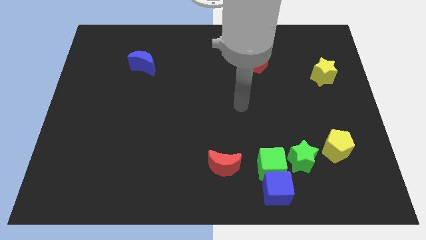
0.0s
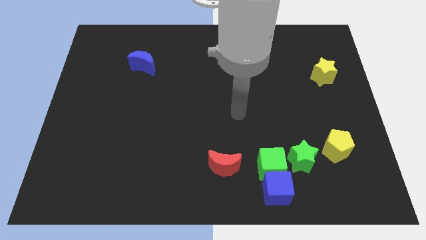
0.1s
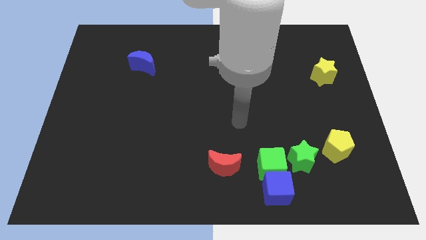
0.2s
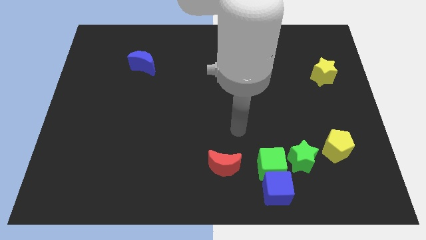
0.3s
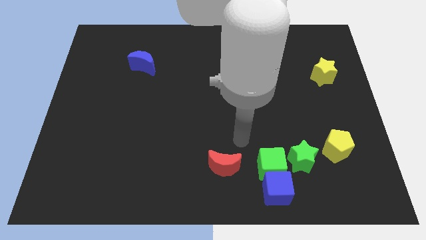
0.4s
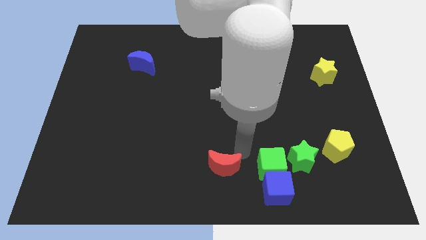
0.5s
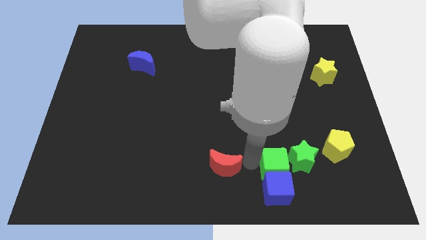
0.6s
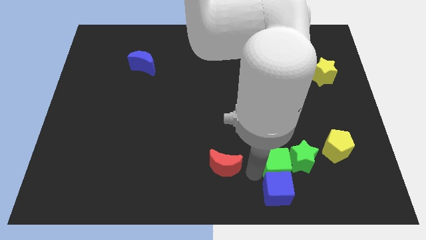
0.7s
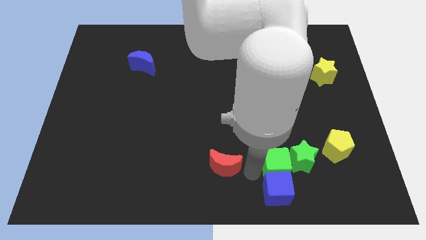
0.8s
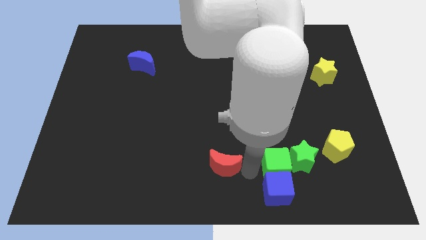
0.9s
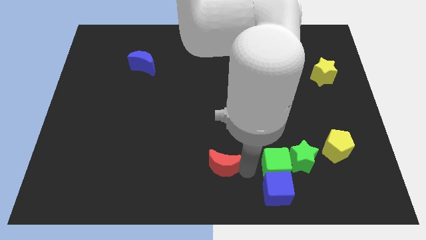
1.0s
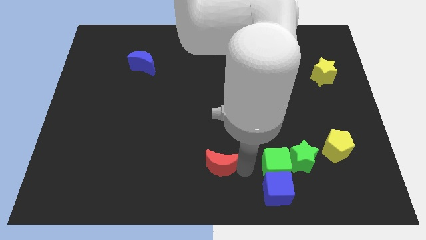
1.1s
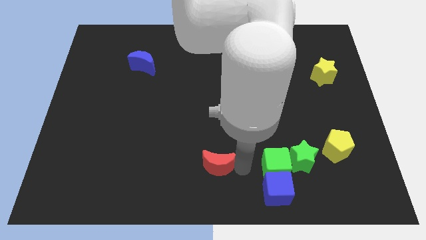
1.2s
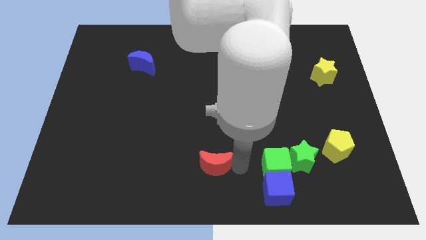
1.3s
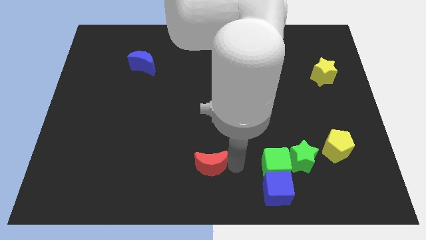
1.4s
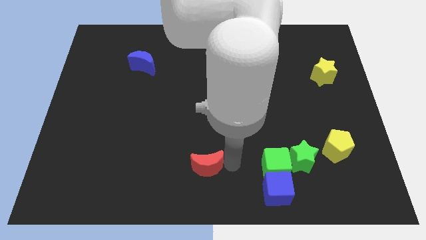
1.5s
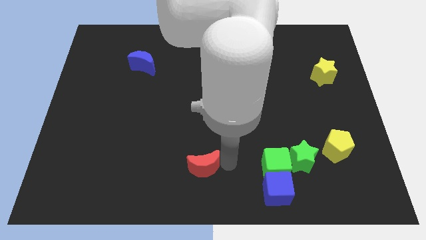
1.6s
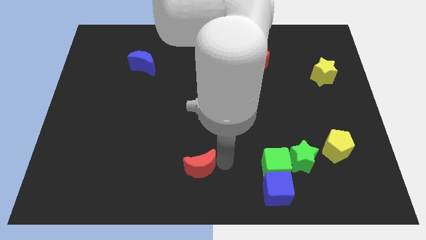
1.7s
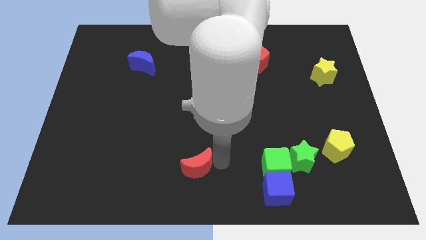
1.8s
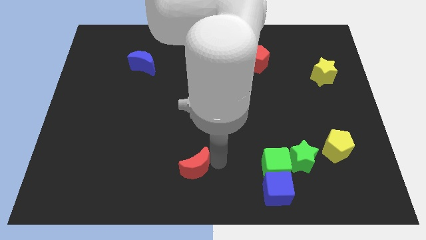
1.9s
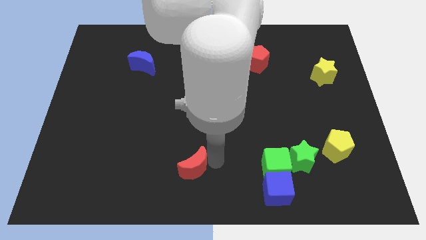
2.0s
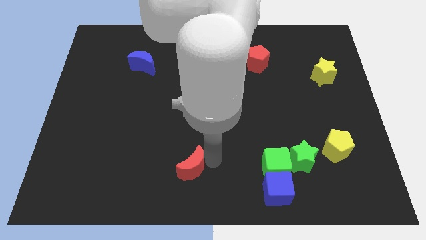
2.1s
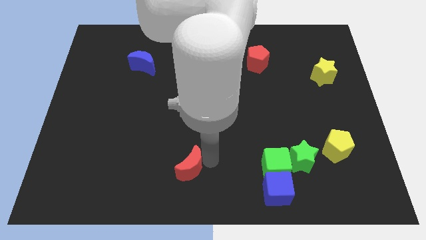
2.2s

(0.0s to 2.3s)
push the red moon left somewhat

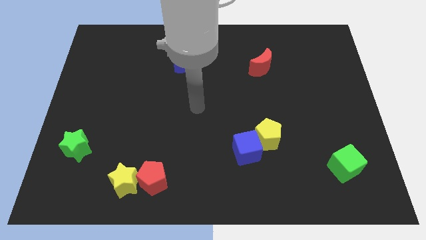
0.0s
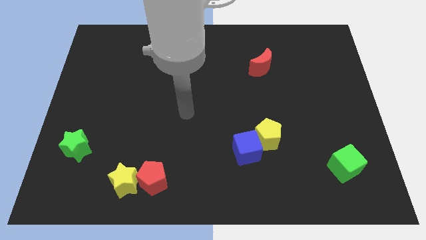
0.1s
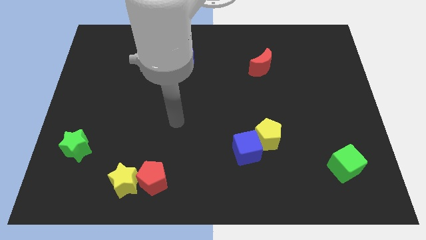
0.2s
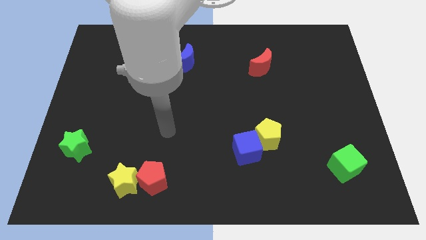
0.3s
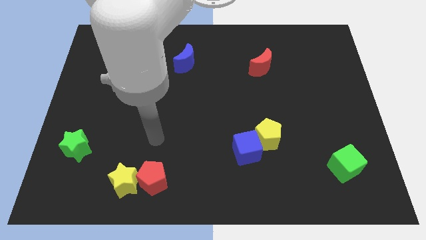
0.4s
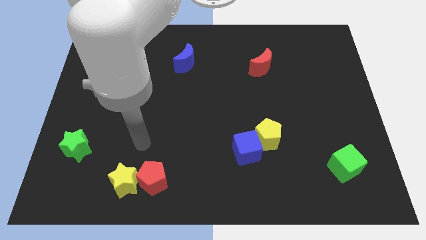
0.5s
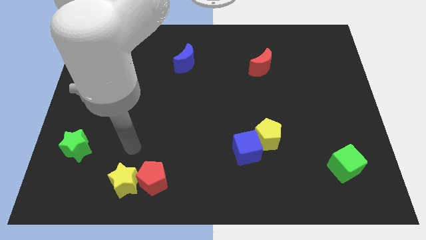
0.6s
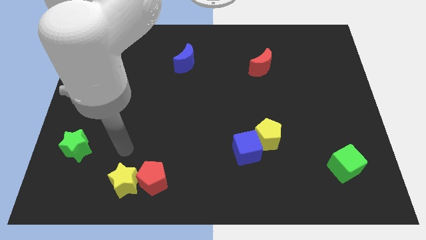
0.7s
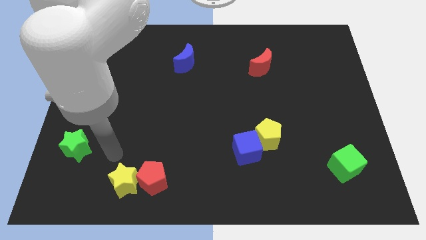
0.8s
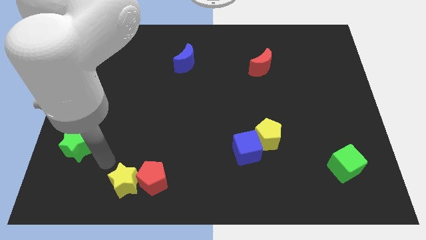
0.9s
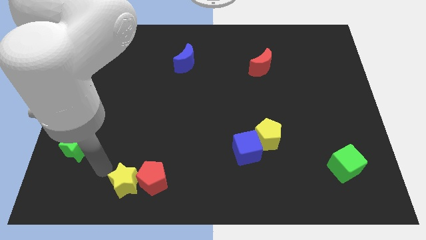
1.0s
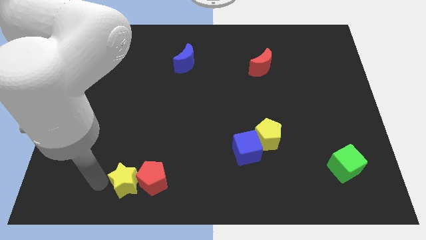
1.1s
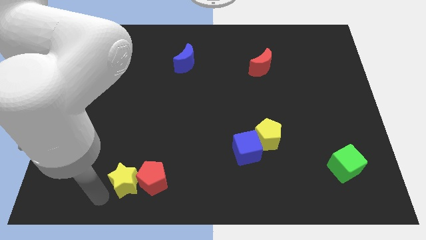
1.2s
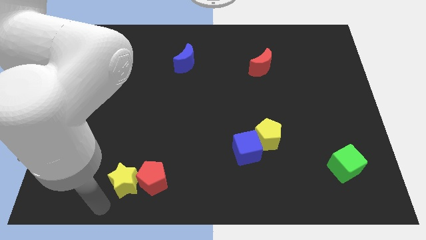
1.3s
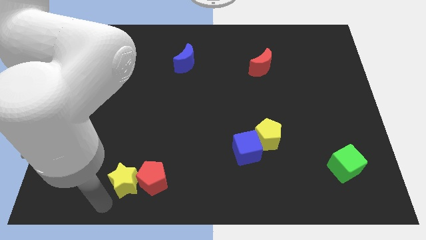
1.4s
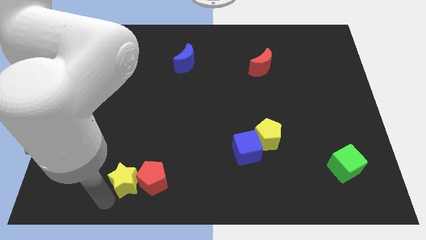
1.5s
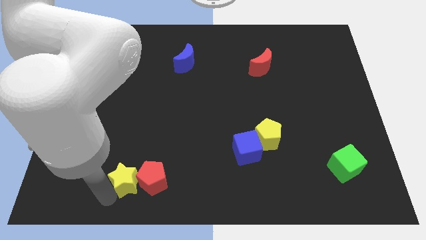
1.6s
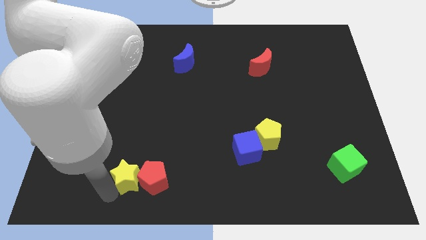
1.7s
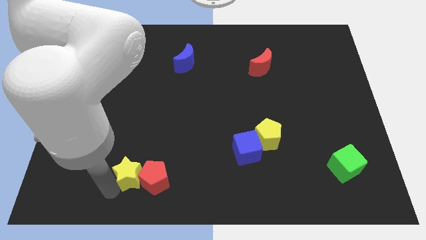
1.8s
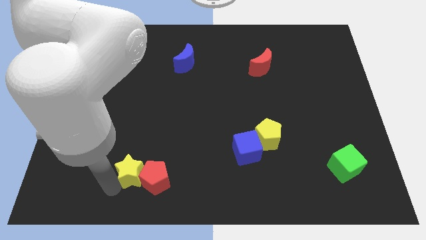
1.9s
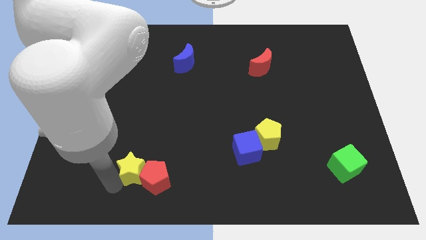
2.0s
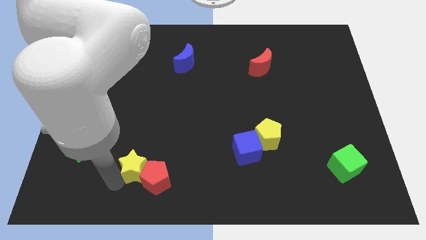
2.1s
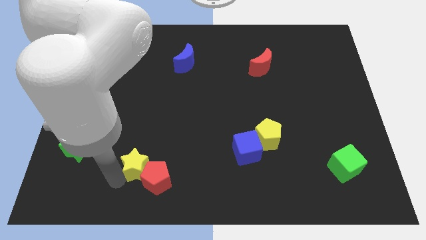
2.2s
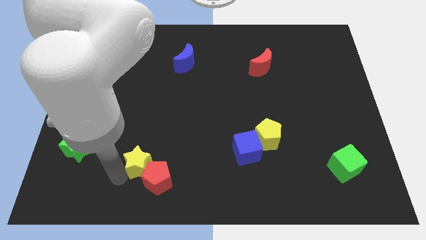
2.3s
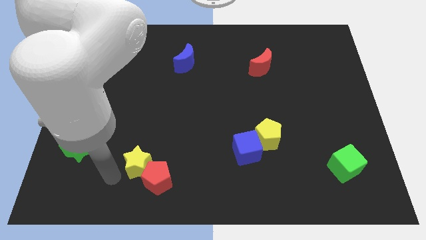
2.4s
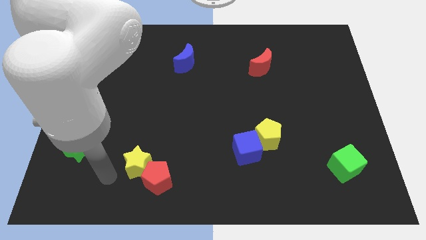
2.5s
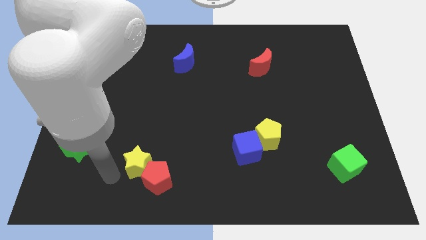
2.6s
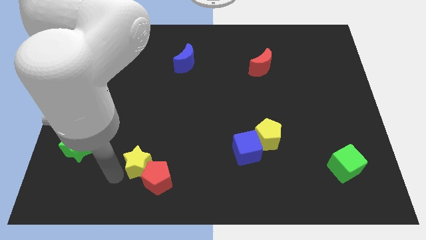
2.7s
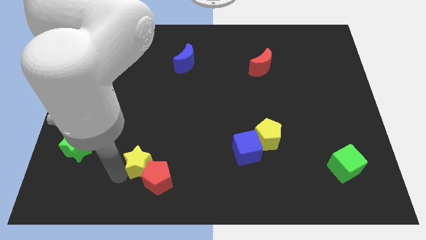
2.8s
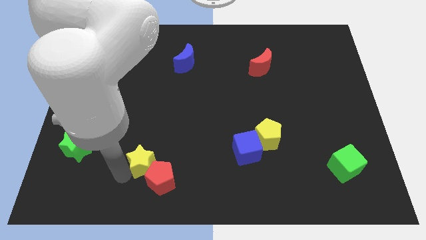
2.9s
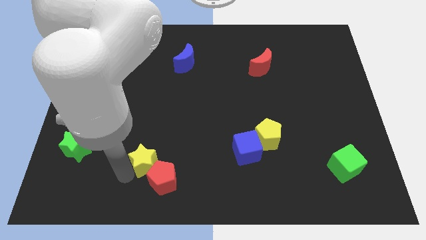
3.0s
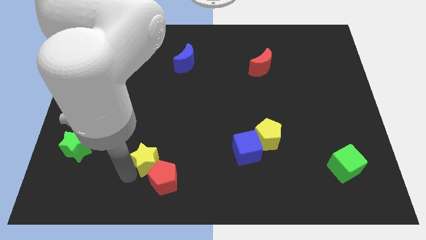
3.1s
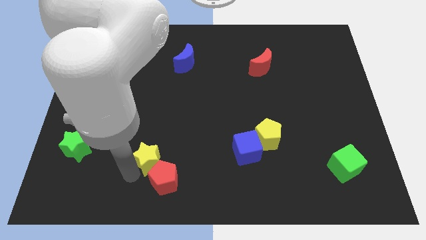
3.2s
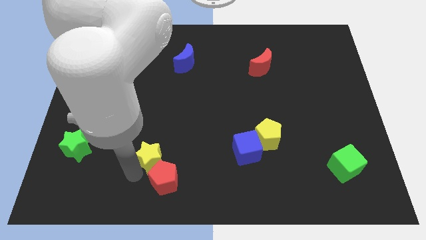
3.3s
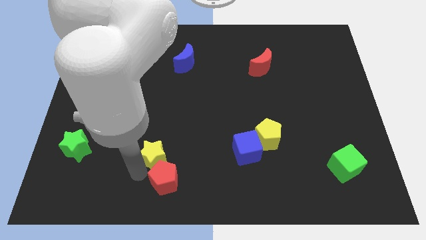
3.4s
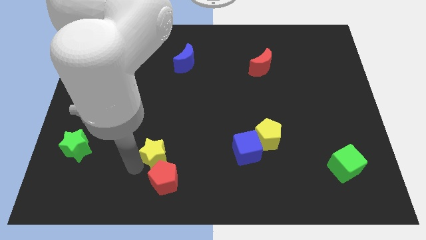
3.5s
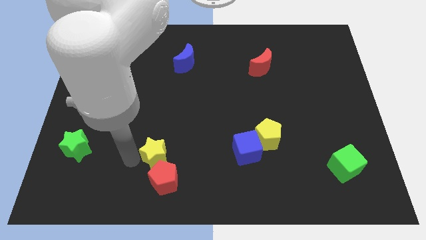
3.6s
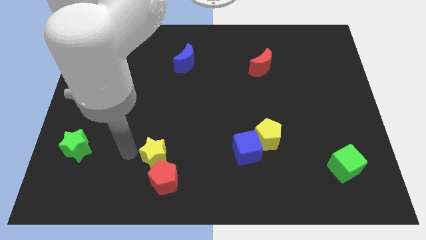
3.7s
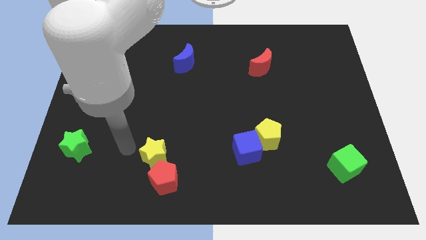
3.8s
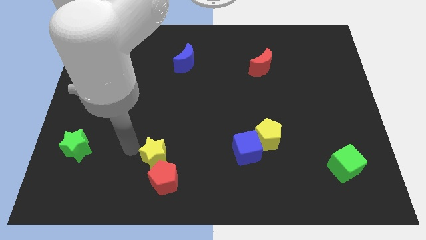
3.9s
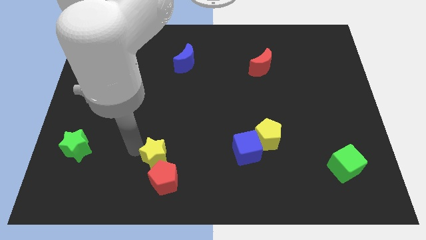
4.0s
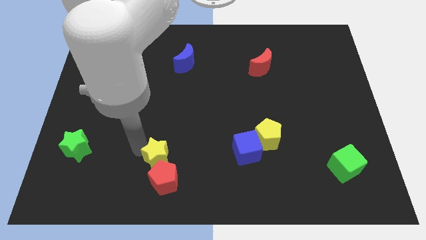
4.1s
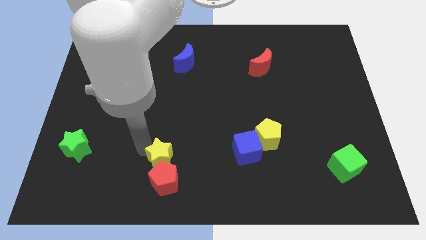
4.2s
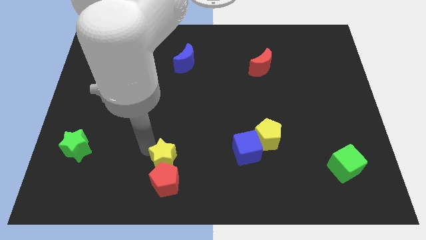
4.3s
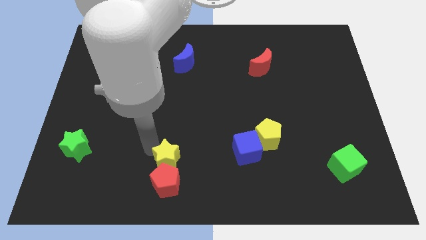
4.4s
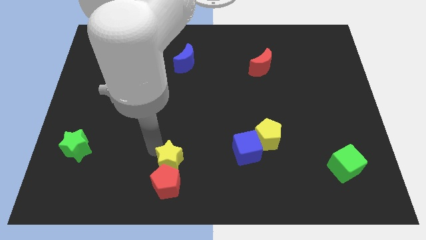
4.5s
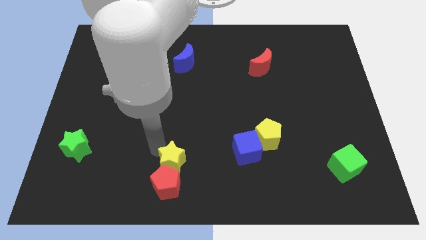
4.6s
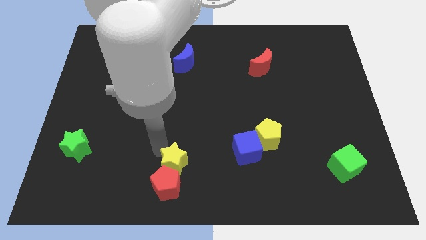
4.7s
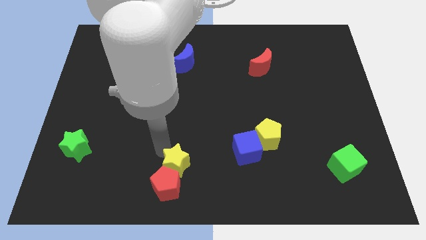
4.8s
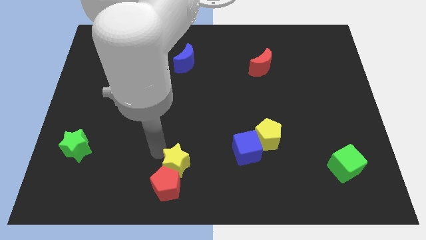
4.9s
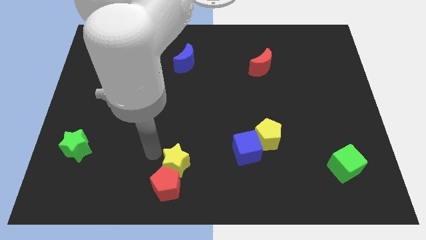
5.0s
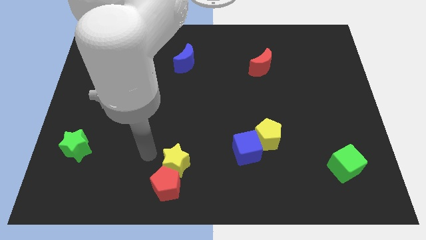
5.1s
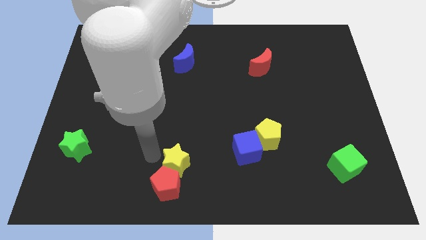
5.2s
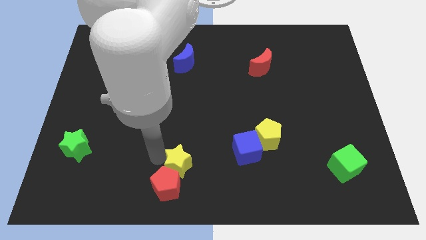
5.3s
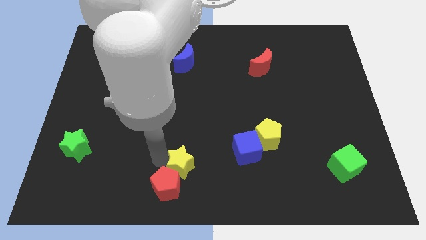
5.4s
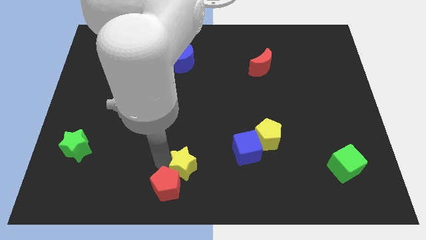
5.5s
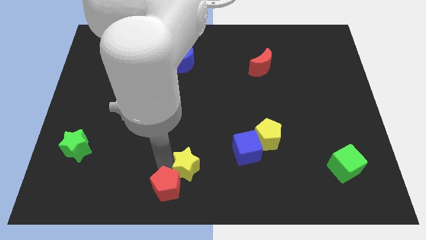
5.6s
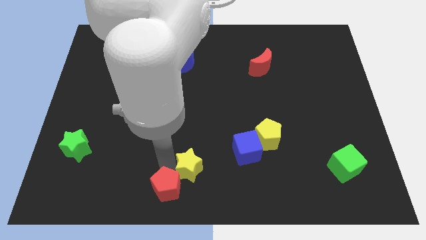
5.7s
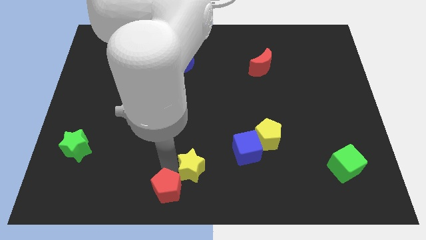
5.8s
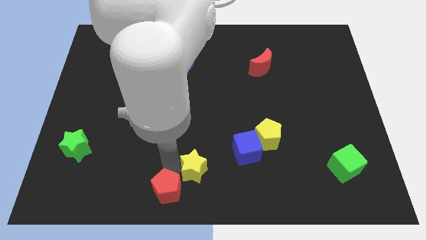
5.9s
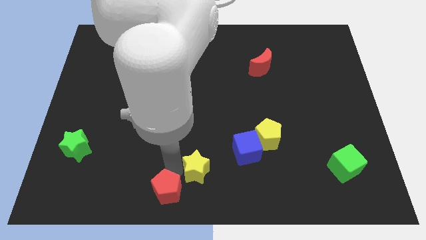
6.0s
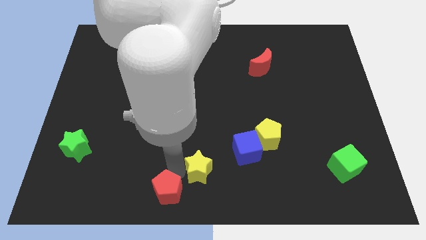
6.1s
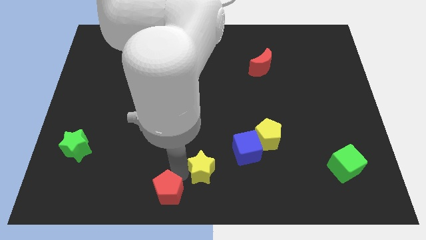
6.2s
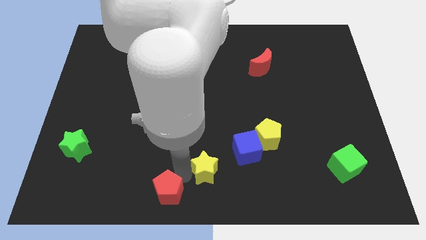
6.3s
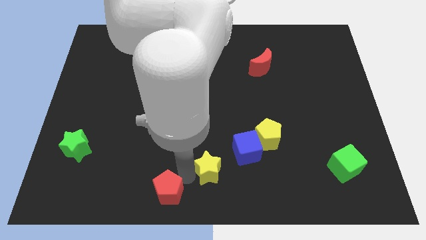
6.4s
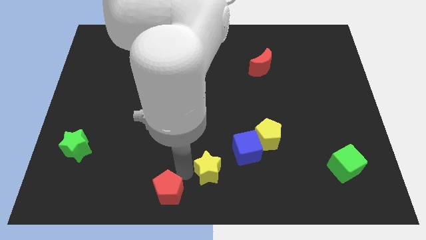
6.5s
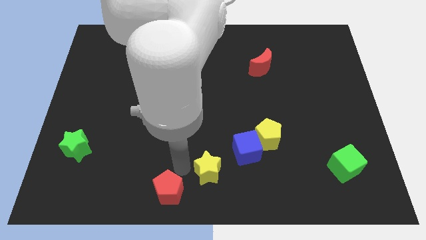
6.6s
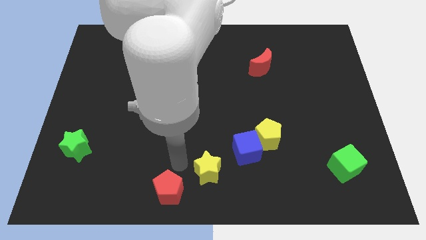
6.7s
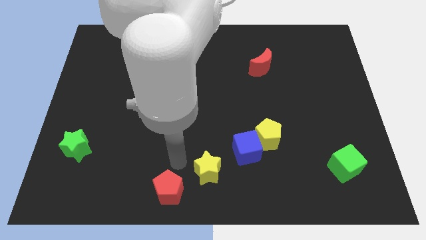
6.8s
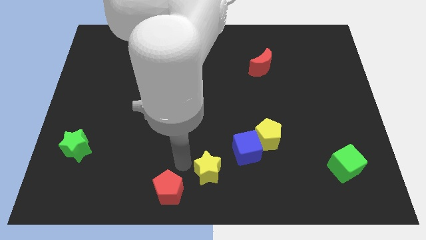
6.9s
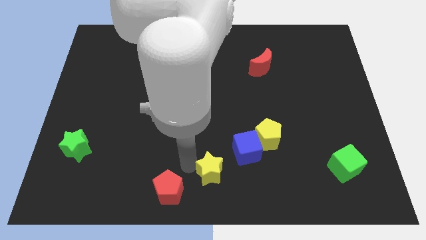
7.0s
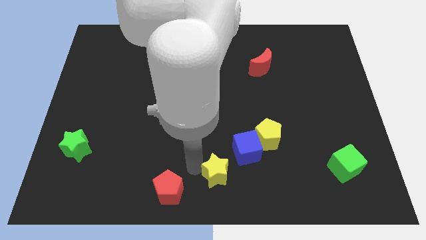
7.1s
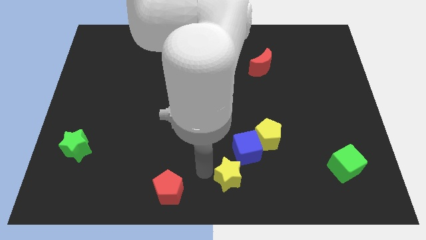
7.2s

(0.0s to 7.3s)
push the yellow star right
